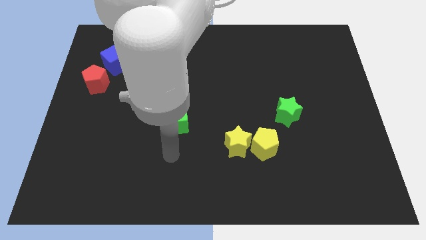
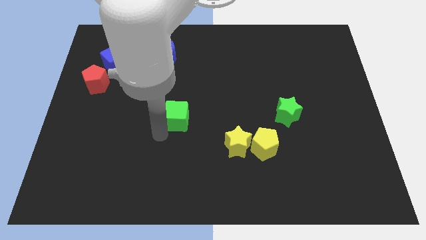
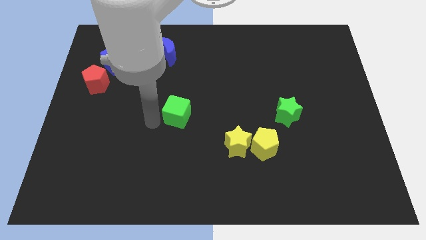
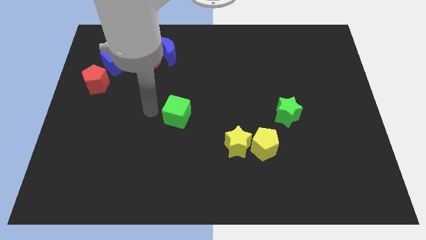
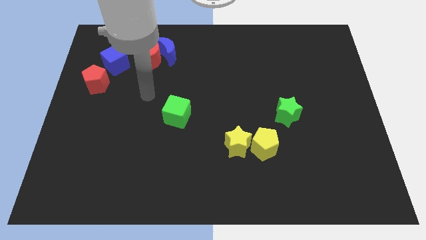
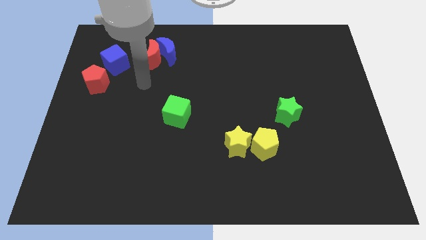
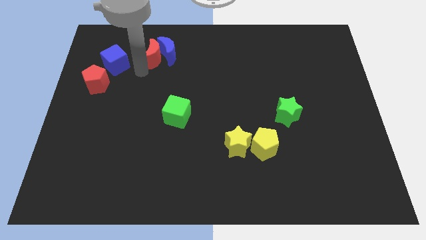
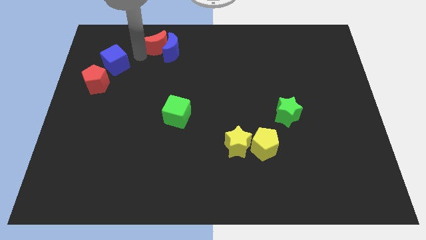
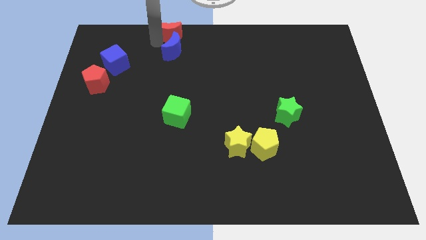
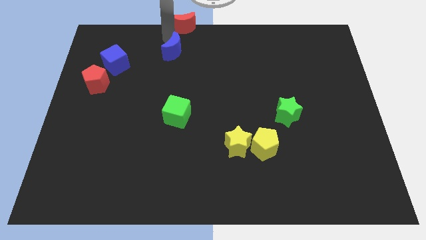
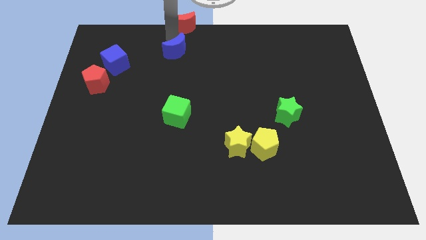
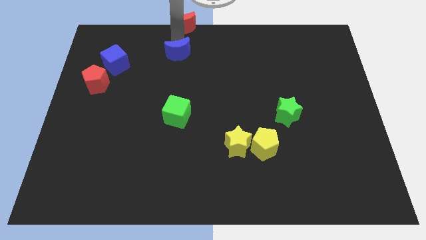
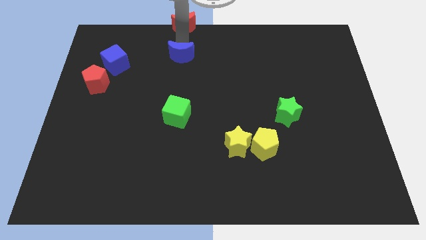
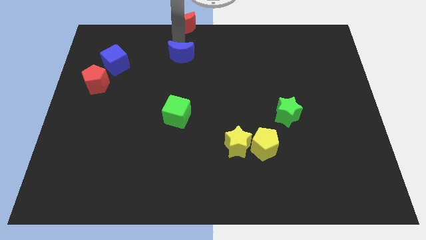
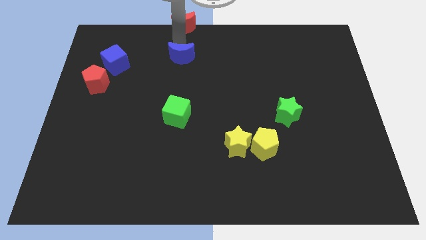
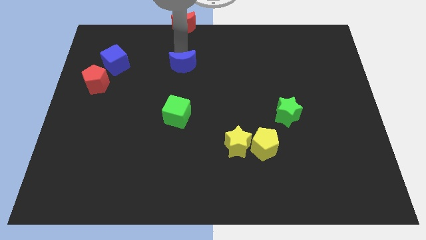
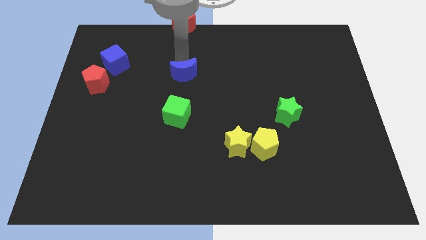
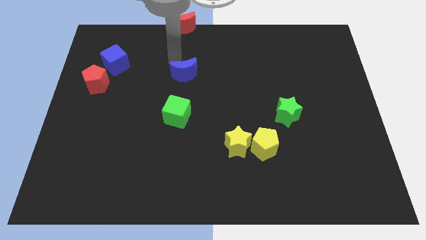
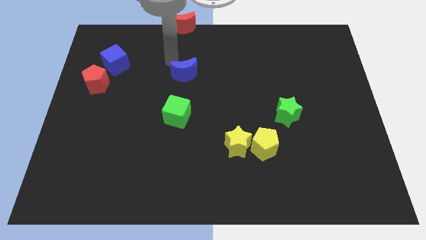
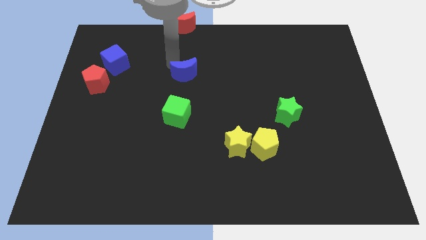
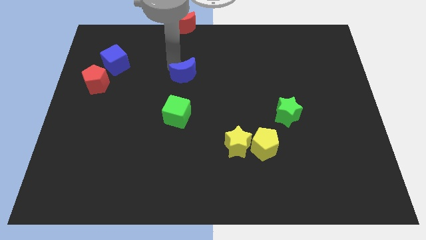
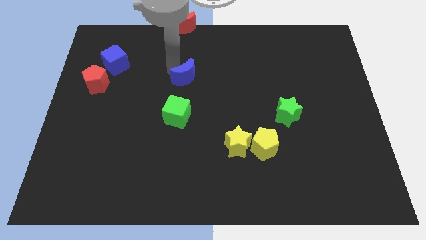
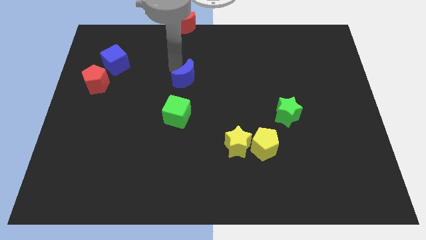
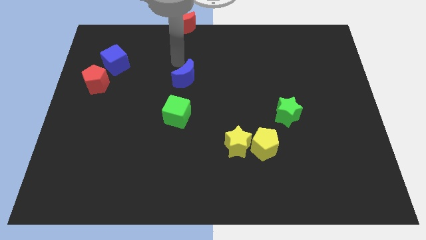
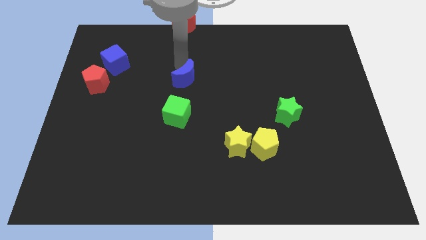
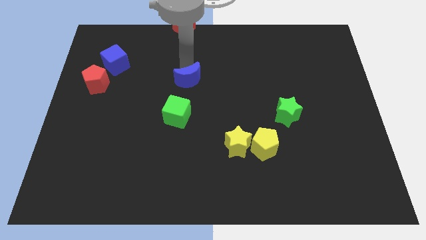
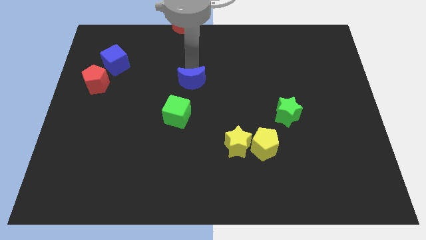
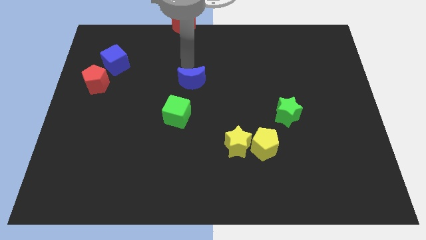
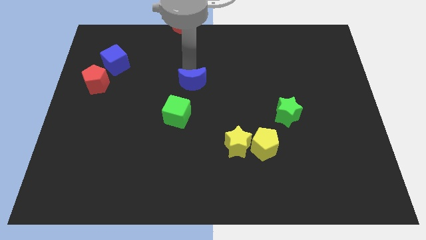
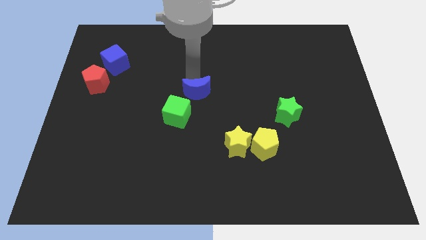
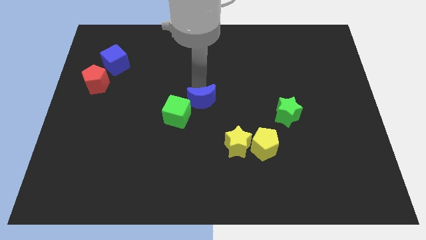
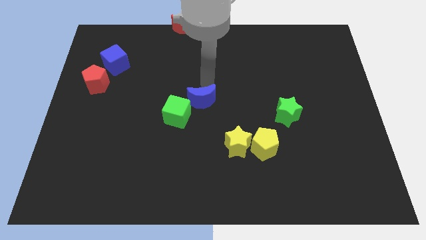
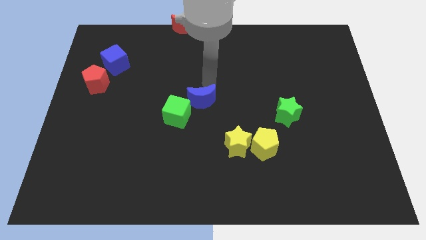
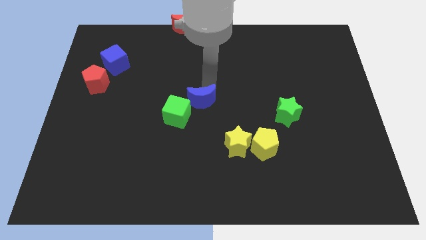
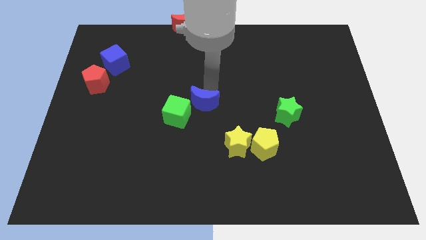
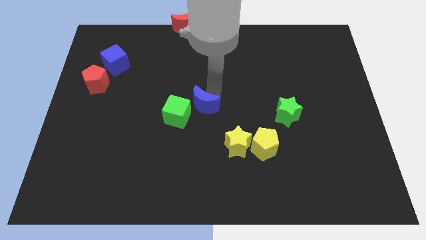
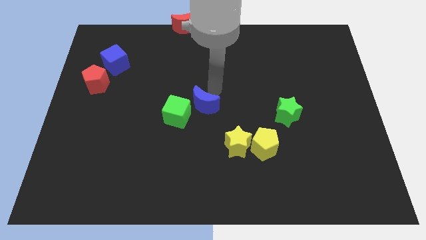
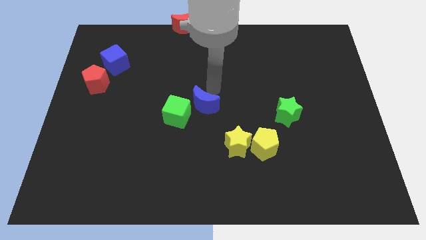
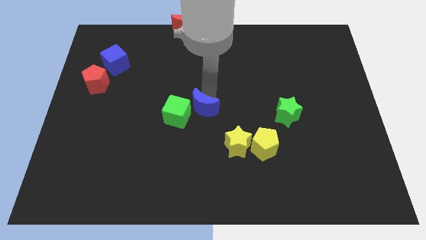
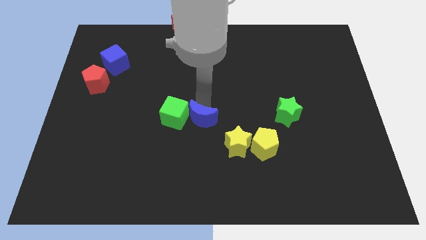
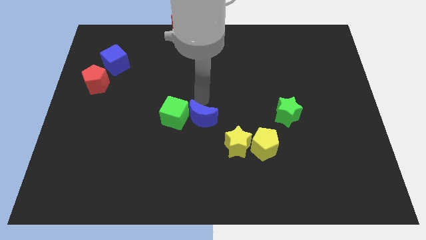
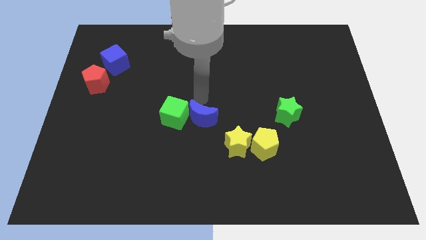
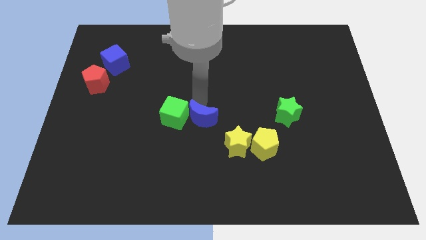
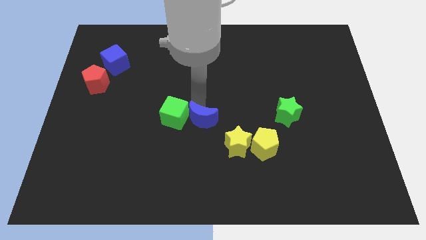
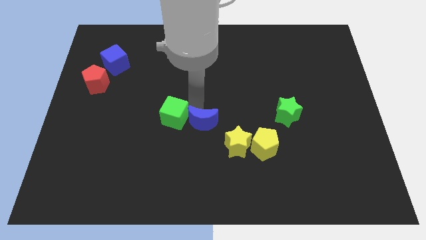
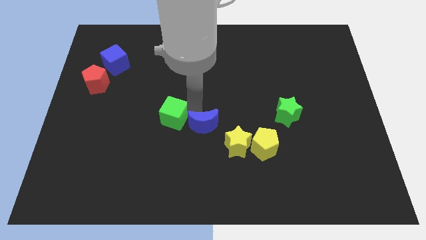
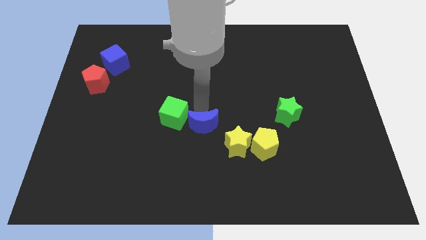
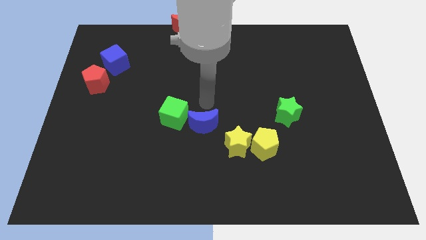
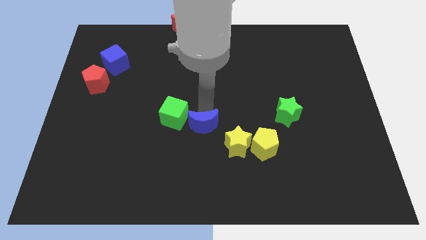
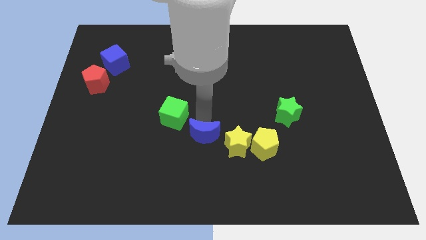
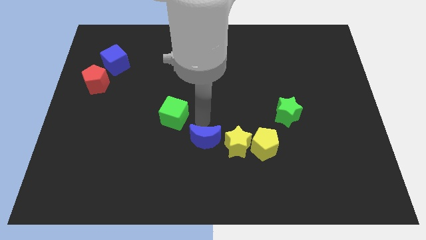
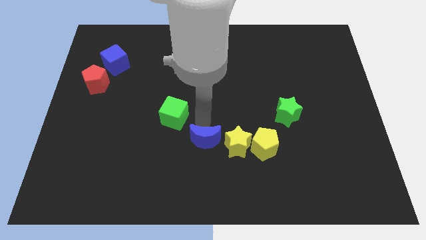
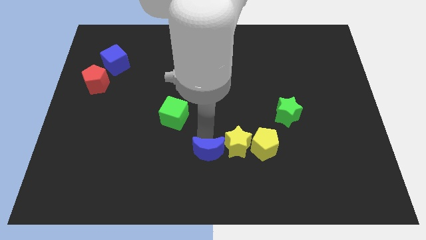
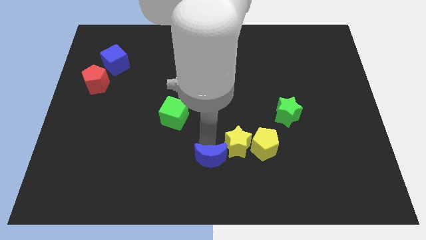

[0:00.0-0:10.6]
put the blue moon to the bottom

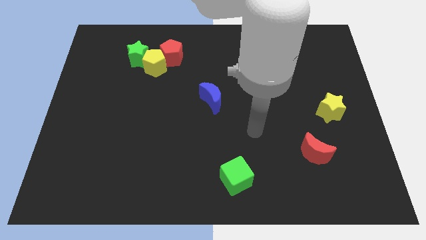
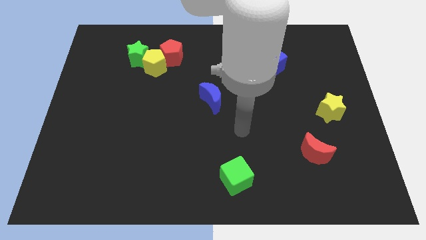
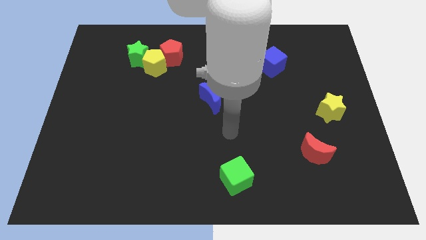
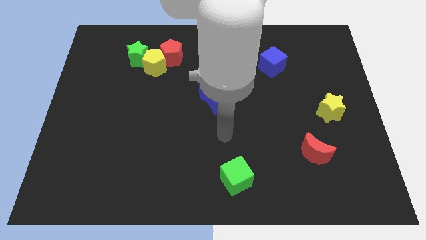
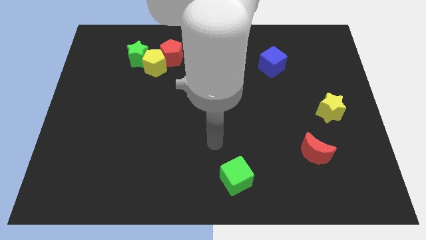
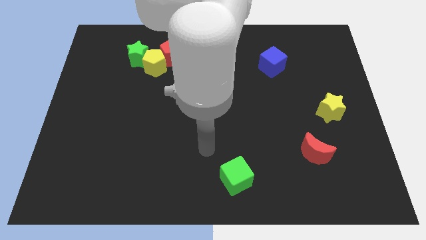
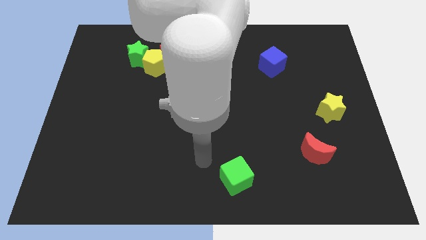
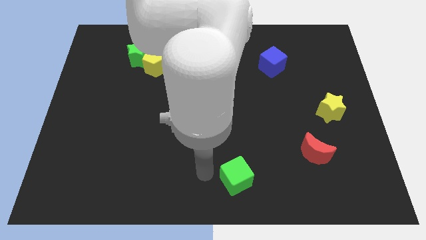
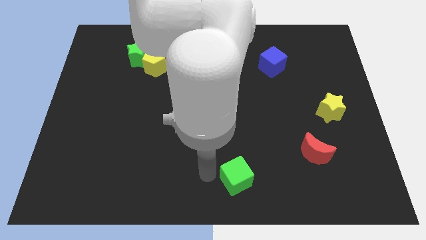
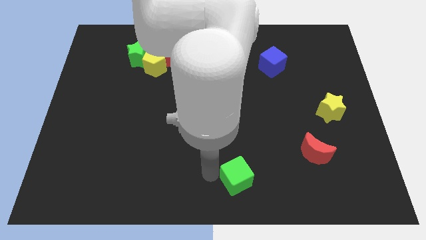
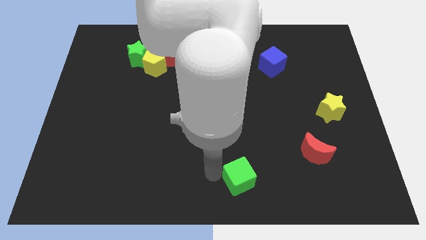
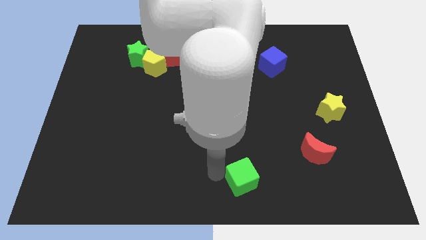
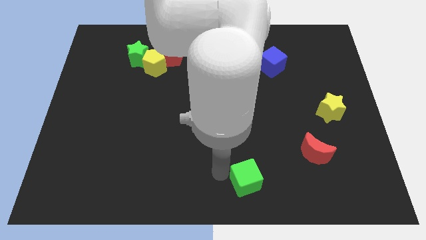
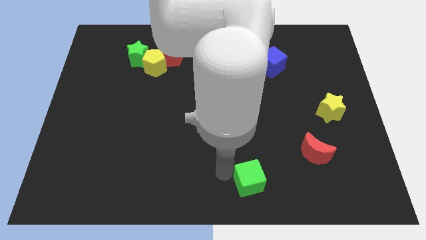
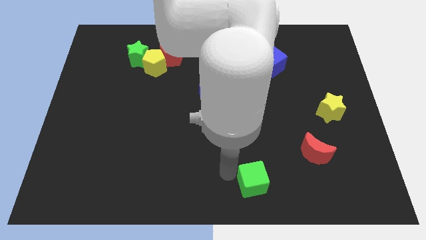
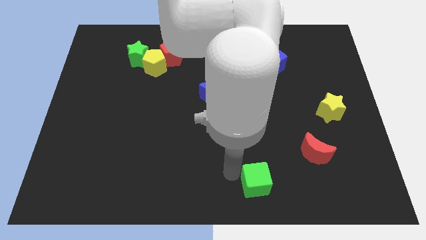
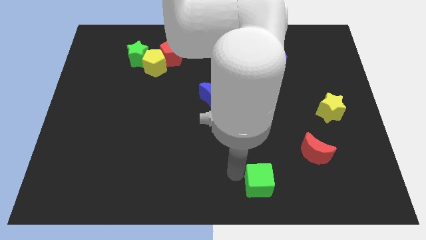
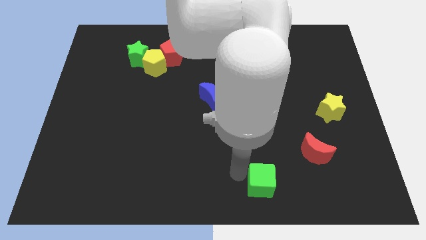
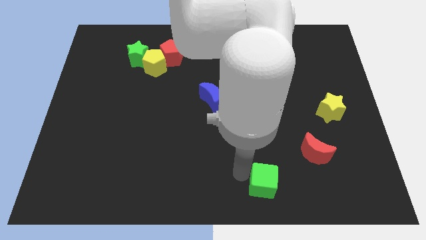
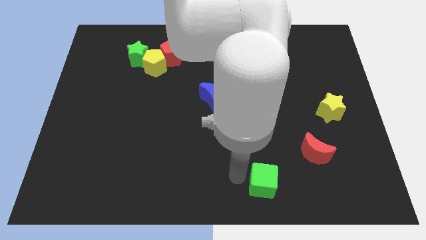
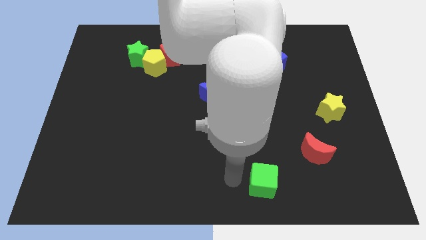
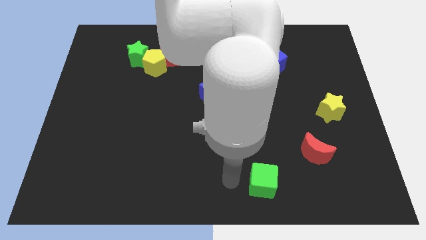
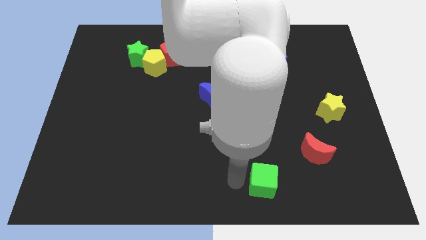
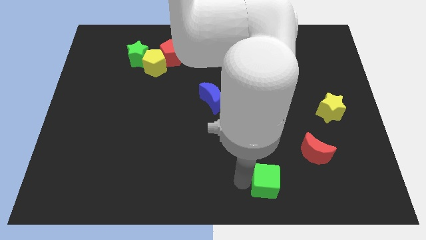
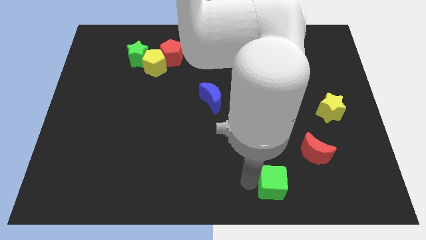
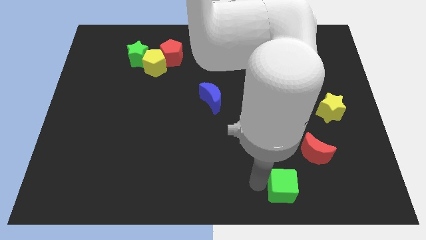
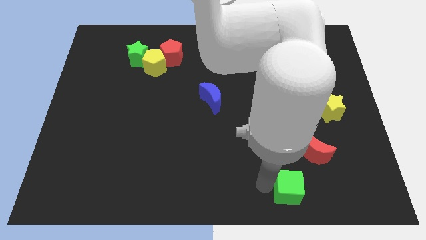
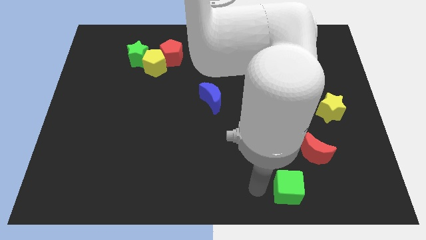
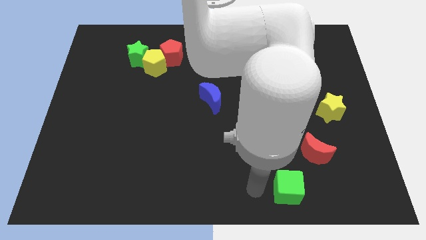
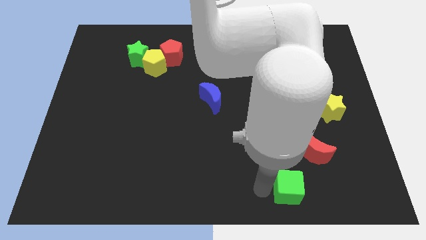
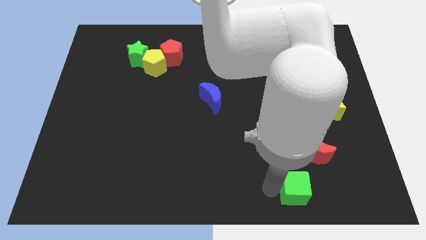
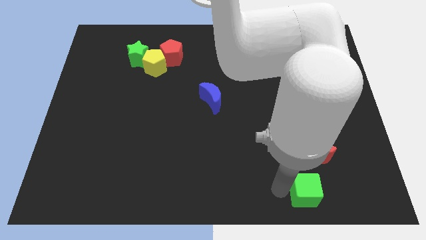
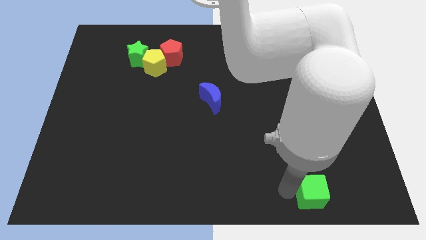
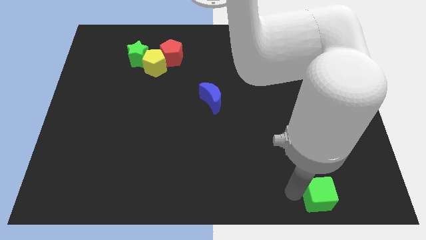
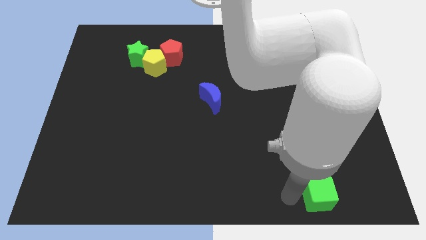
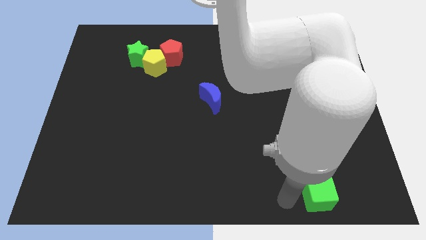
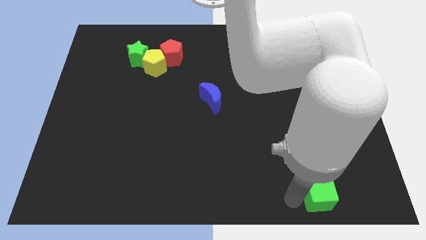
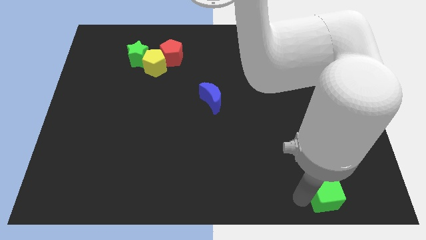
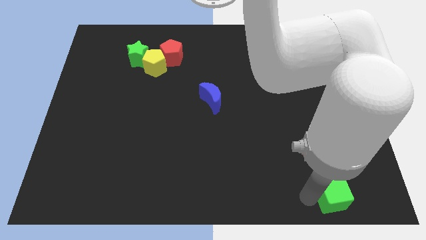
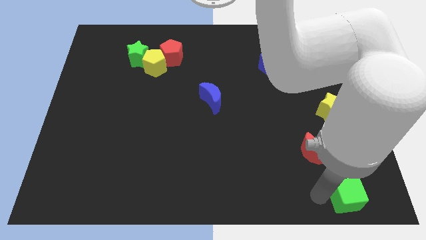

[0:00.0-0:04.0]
slide the green cube to the bottom right of the board
